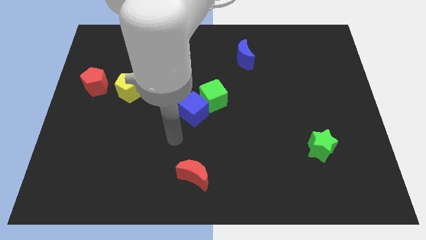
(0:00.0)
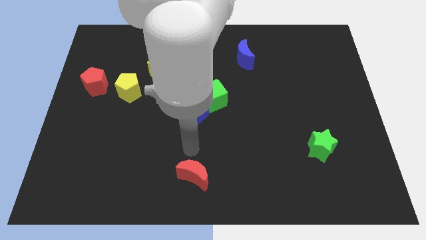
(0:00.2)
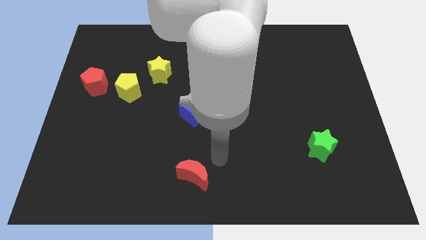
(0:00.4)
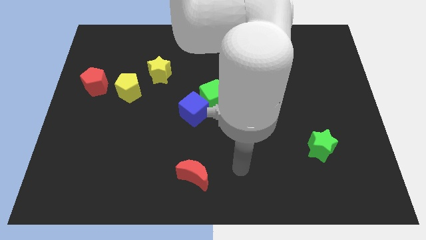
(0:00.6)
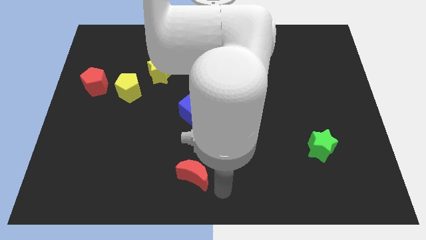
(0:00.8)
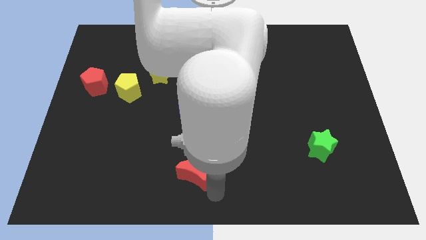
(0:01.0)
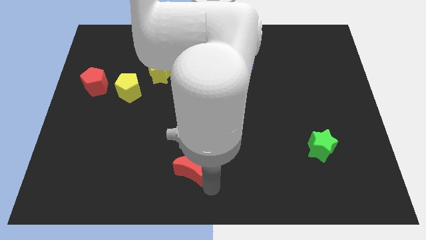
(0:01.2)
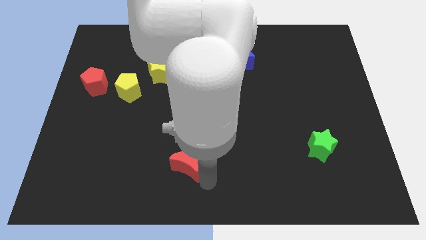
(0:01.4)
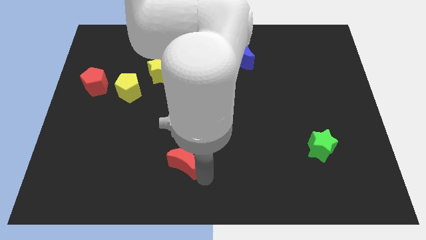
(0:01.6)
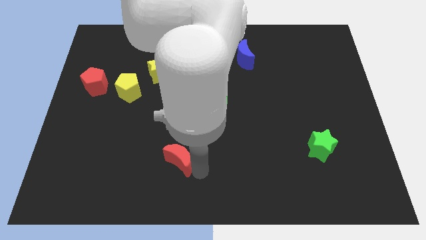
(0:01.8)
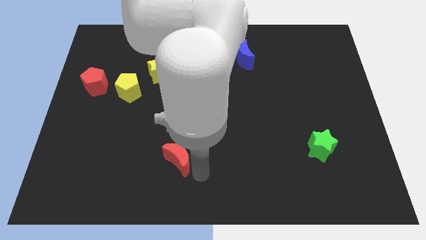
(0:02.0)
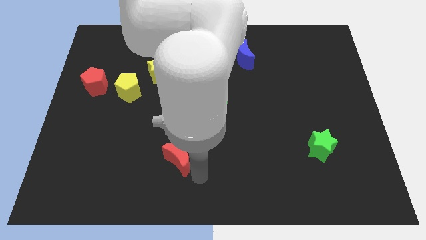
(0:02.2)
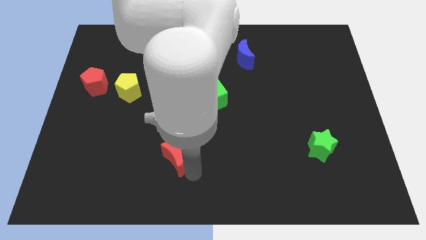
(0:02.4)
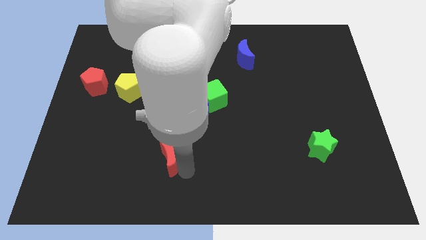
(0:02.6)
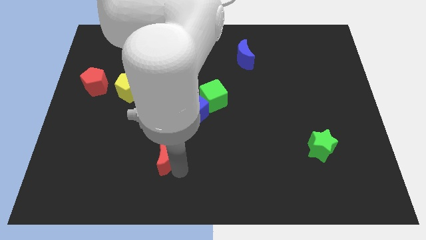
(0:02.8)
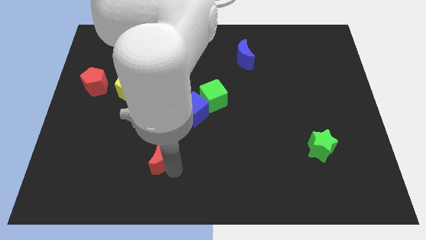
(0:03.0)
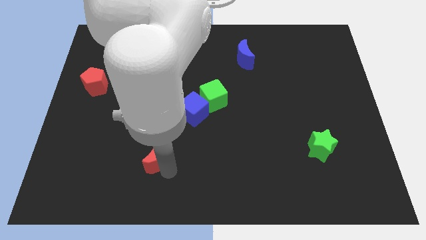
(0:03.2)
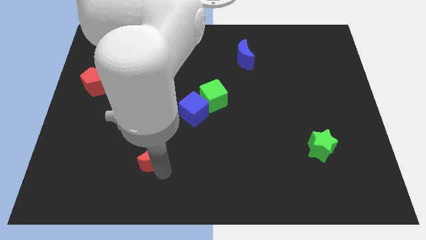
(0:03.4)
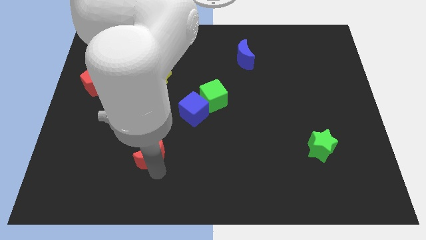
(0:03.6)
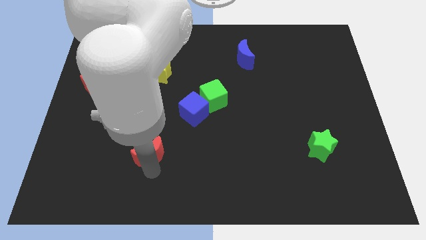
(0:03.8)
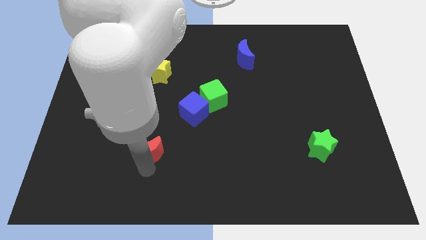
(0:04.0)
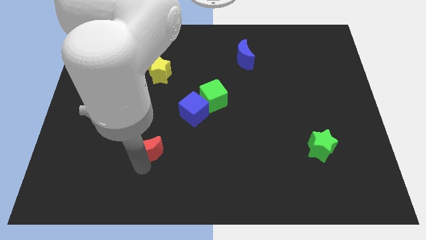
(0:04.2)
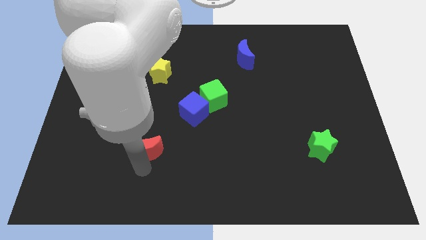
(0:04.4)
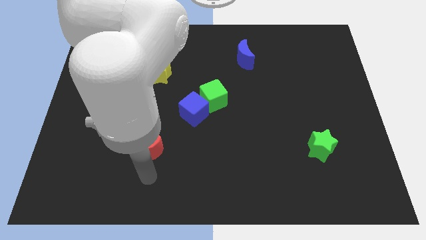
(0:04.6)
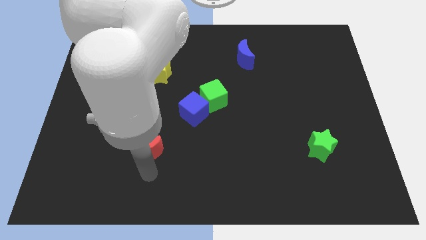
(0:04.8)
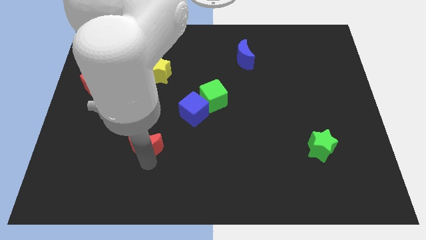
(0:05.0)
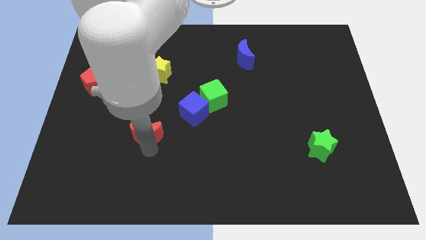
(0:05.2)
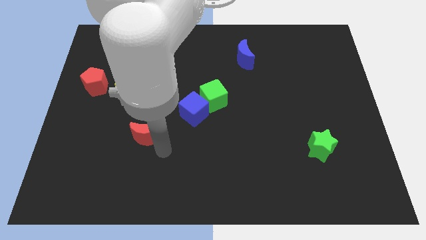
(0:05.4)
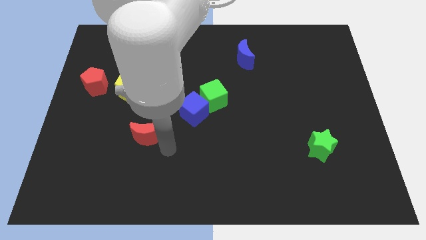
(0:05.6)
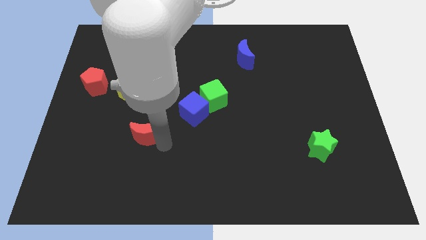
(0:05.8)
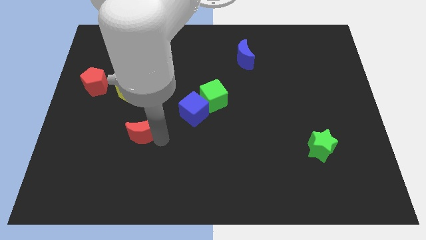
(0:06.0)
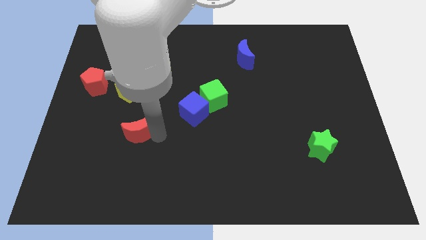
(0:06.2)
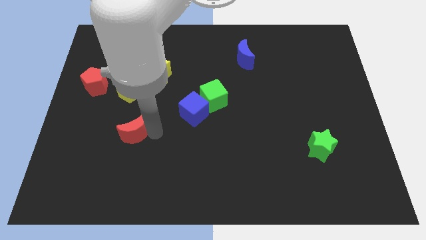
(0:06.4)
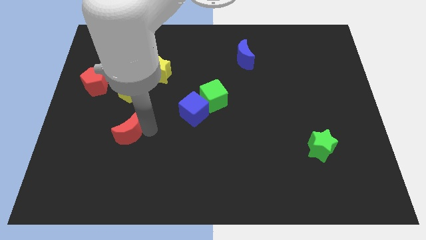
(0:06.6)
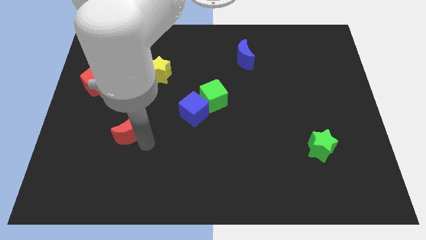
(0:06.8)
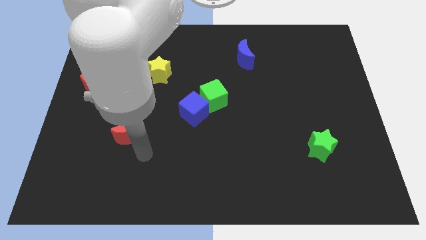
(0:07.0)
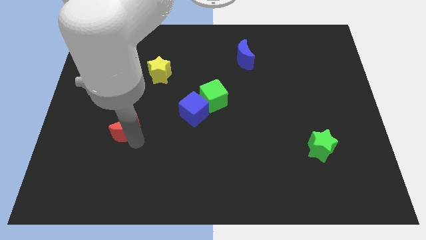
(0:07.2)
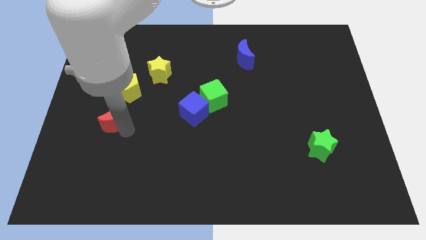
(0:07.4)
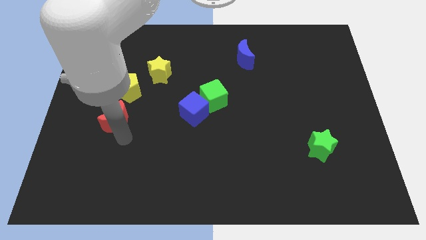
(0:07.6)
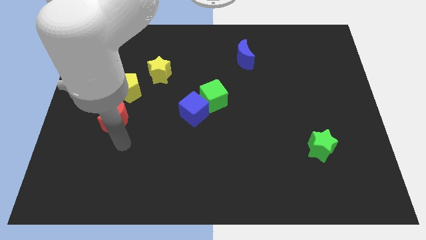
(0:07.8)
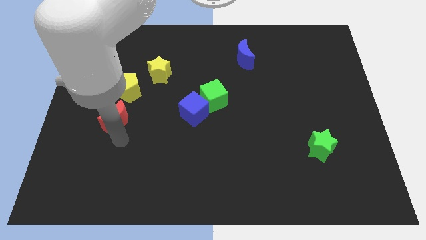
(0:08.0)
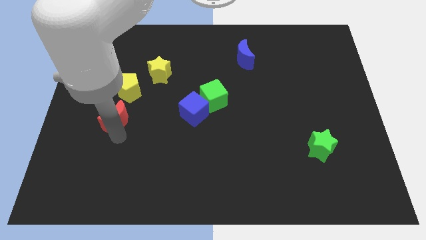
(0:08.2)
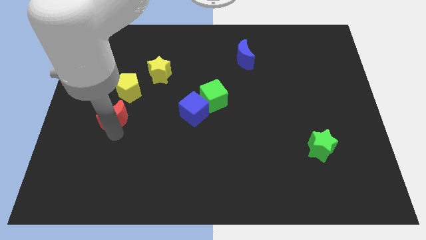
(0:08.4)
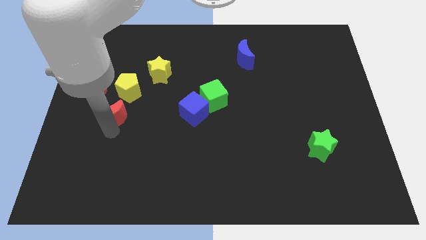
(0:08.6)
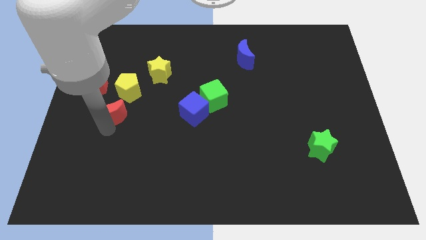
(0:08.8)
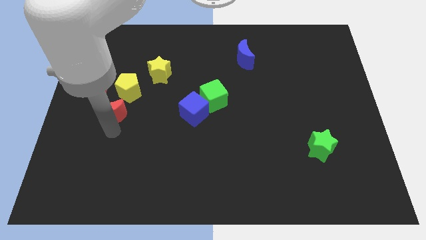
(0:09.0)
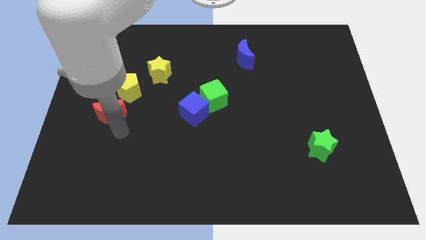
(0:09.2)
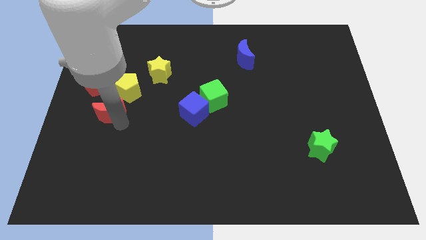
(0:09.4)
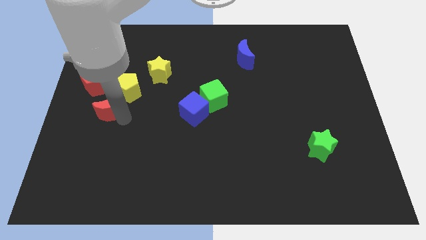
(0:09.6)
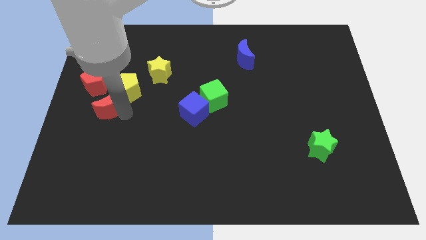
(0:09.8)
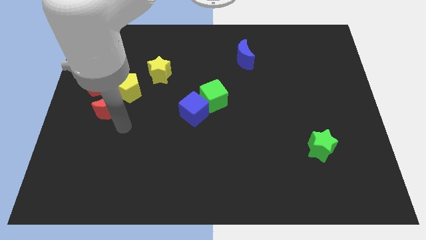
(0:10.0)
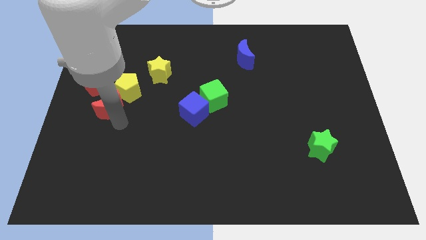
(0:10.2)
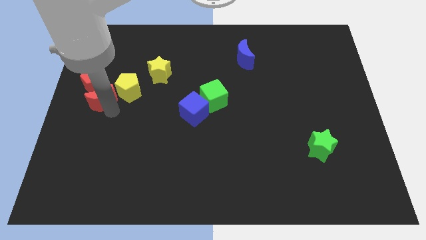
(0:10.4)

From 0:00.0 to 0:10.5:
slide the red moon towards the red pentagon

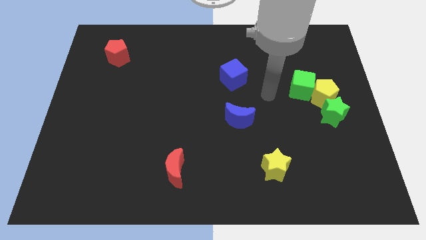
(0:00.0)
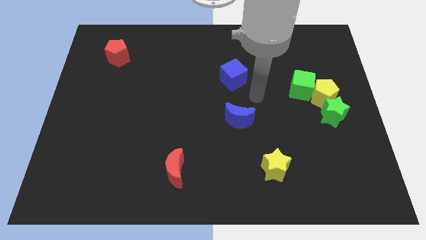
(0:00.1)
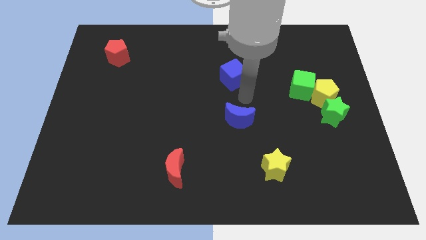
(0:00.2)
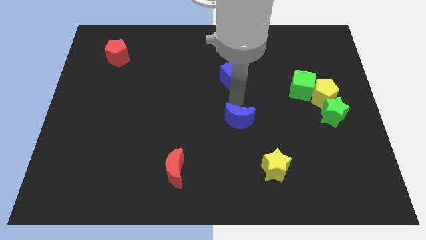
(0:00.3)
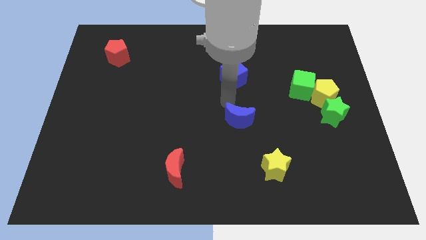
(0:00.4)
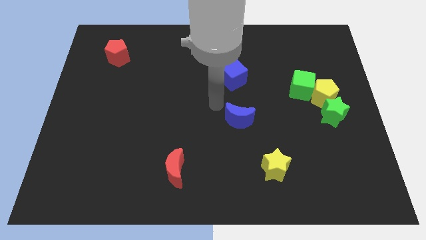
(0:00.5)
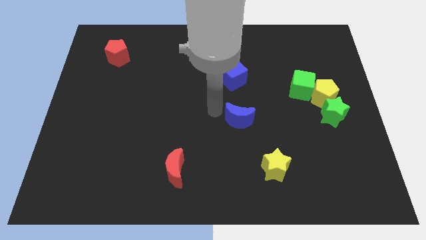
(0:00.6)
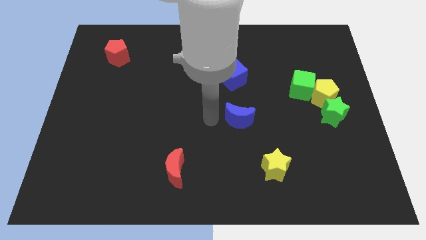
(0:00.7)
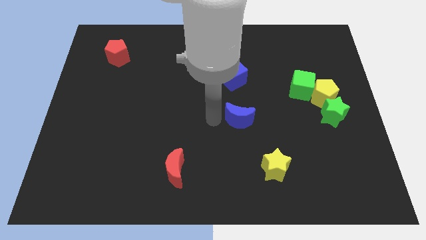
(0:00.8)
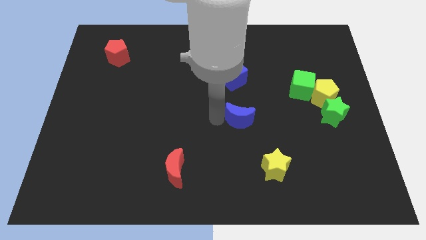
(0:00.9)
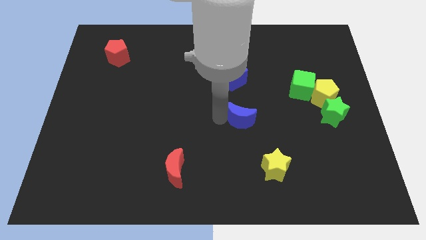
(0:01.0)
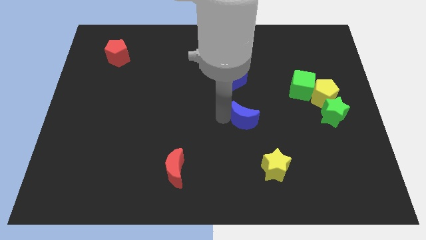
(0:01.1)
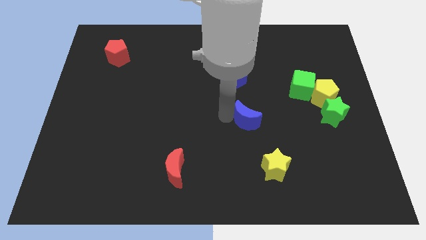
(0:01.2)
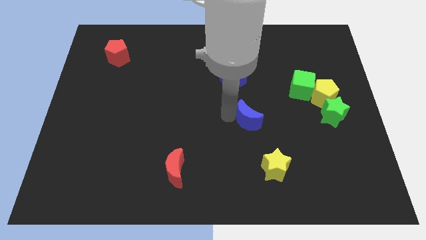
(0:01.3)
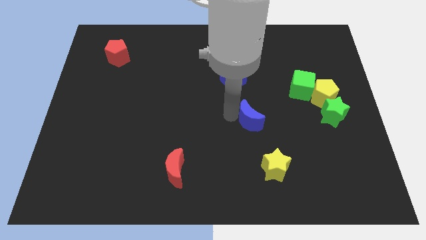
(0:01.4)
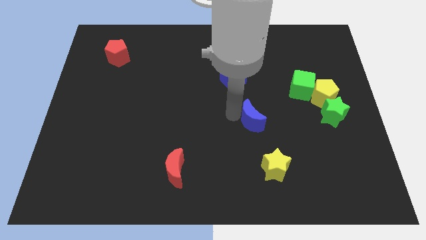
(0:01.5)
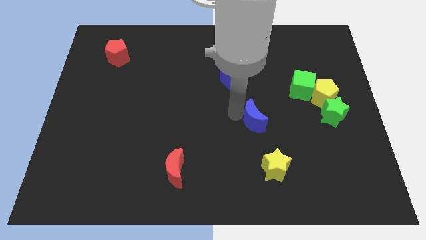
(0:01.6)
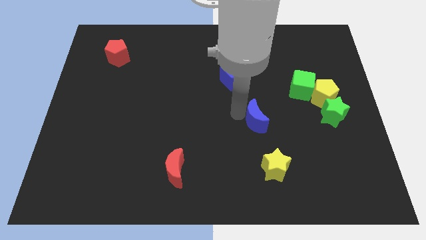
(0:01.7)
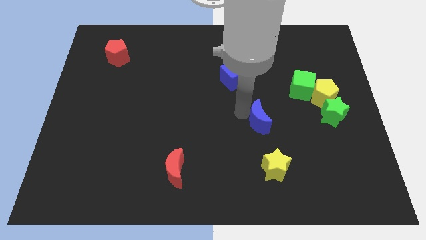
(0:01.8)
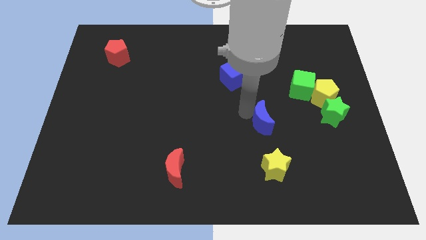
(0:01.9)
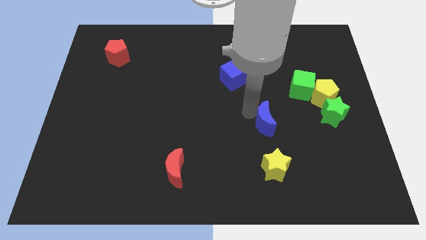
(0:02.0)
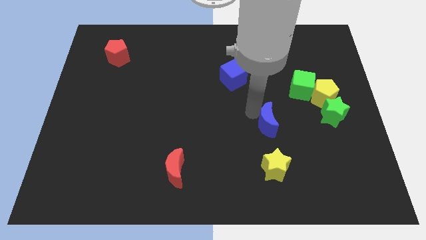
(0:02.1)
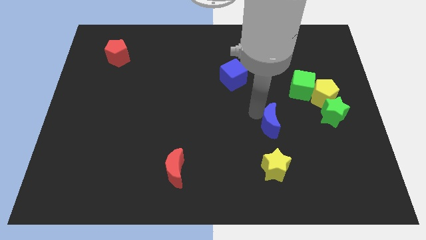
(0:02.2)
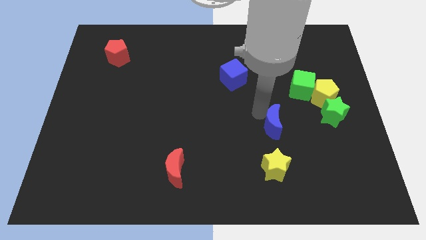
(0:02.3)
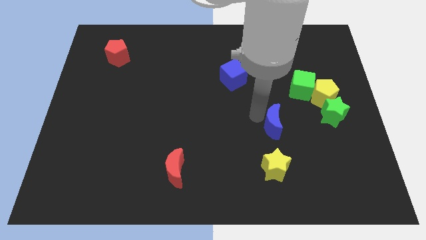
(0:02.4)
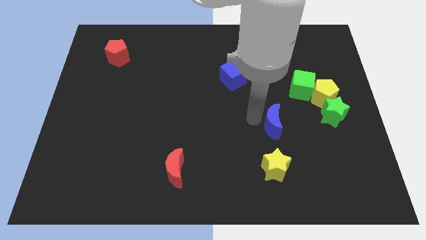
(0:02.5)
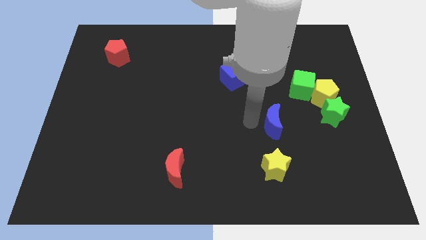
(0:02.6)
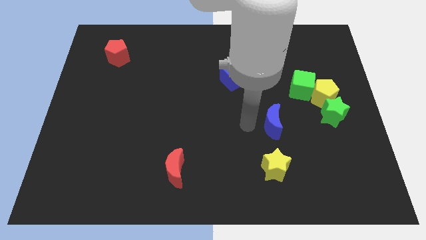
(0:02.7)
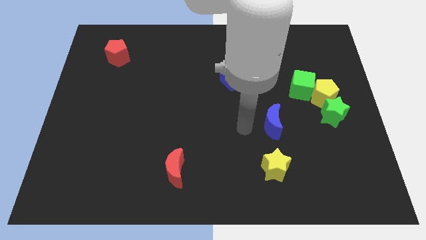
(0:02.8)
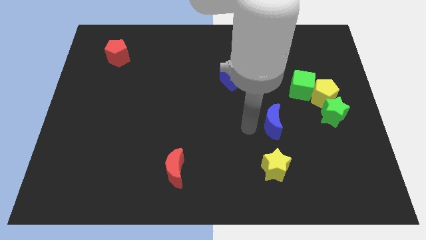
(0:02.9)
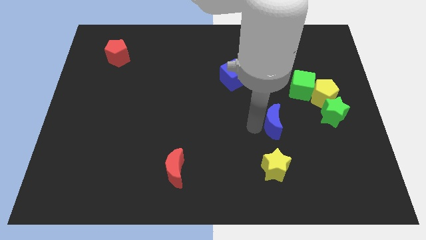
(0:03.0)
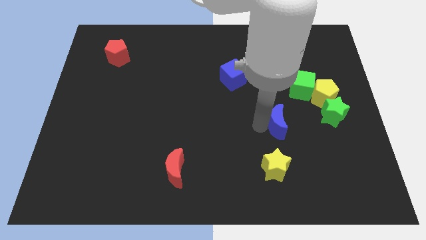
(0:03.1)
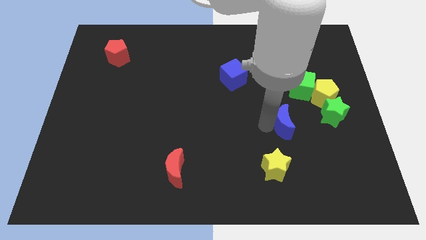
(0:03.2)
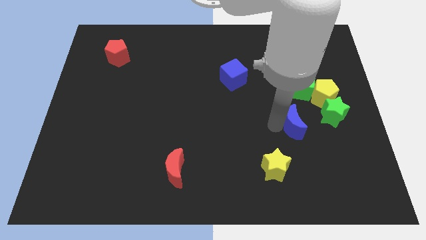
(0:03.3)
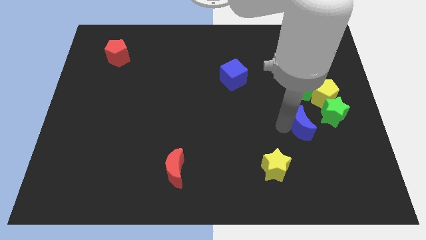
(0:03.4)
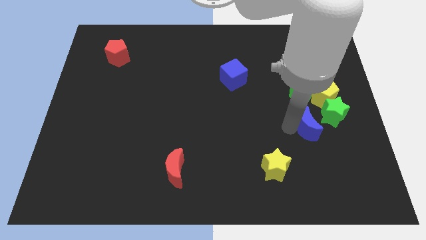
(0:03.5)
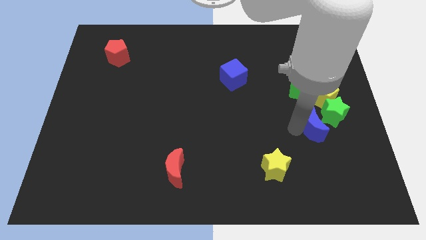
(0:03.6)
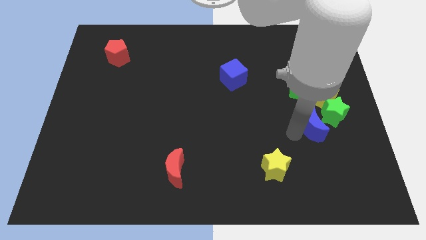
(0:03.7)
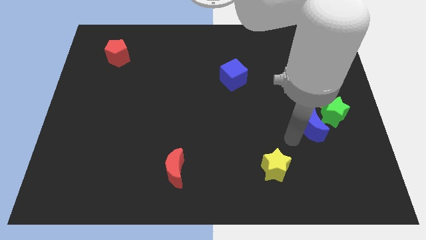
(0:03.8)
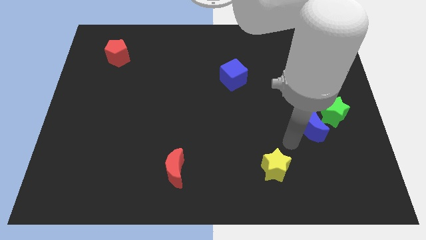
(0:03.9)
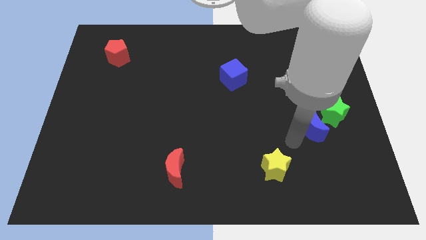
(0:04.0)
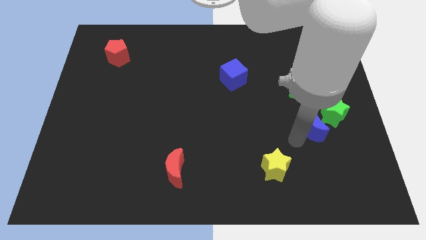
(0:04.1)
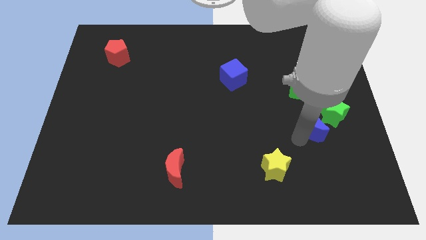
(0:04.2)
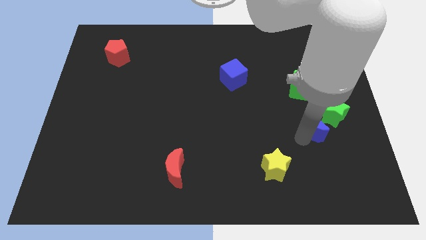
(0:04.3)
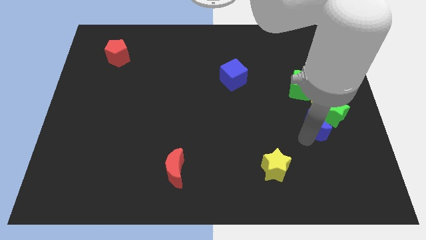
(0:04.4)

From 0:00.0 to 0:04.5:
slide the blue moon to the green star
